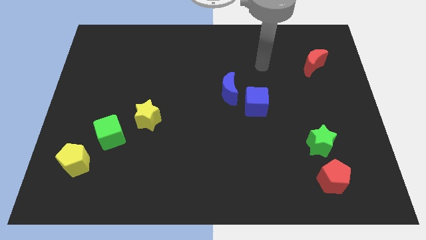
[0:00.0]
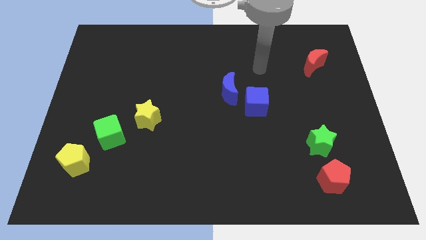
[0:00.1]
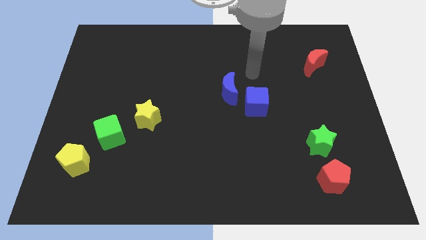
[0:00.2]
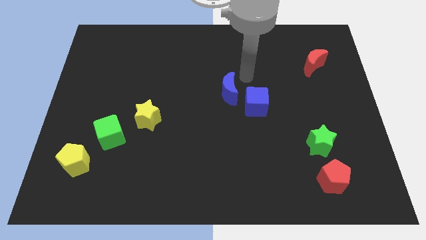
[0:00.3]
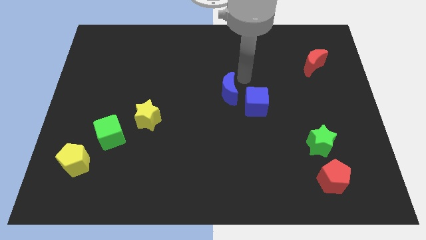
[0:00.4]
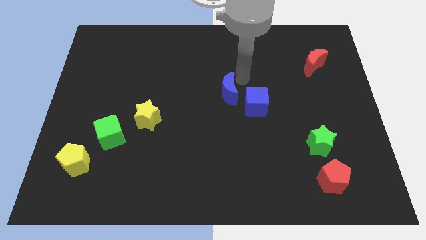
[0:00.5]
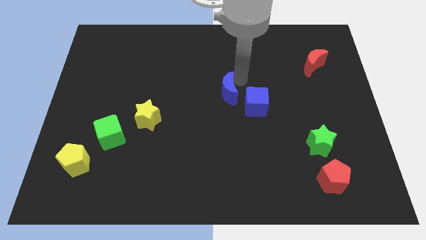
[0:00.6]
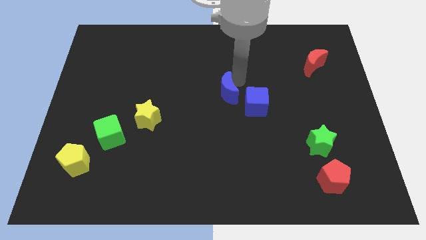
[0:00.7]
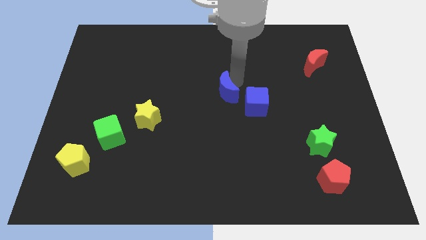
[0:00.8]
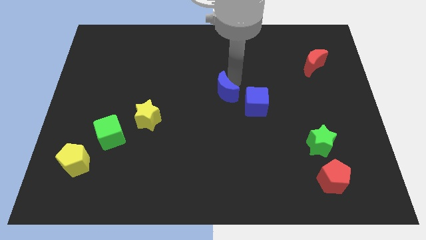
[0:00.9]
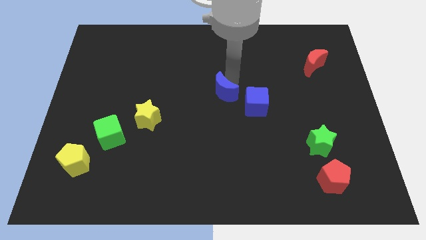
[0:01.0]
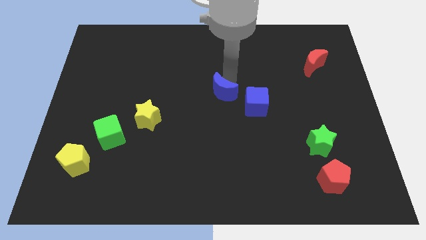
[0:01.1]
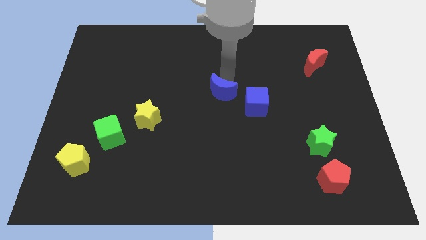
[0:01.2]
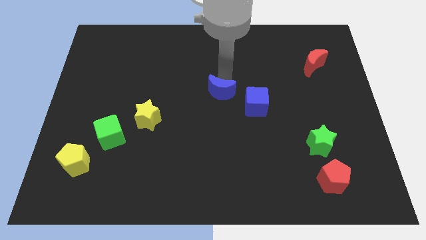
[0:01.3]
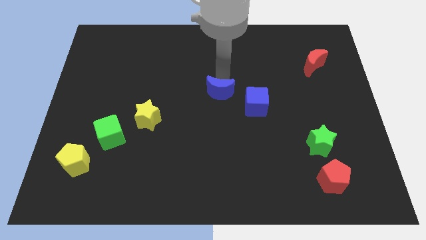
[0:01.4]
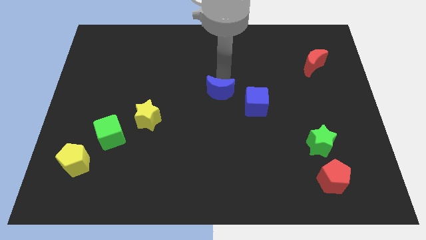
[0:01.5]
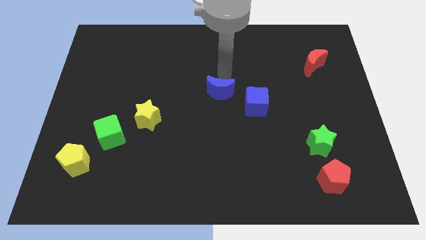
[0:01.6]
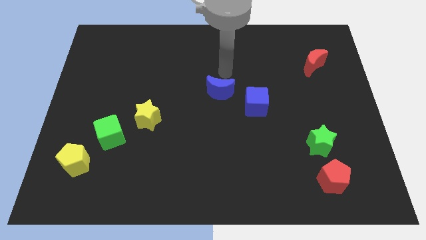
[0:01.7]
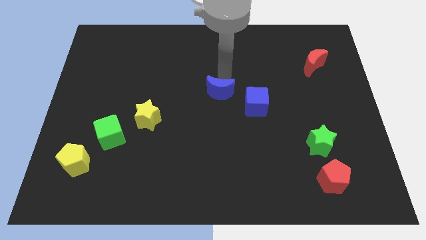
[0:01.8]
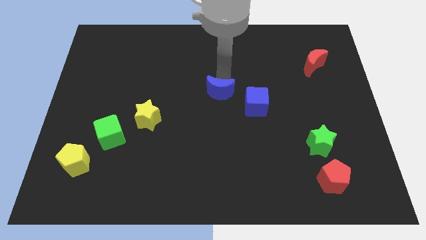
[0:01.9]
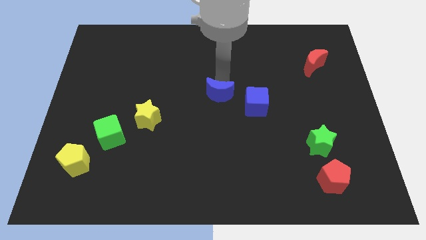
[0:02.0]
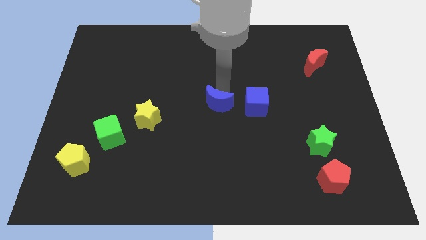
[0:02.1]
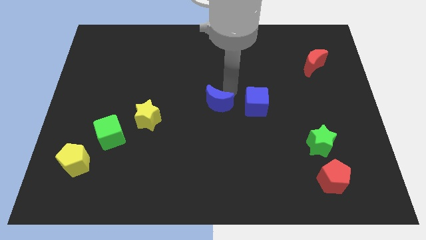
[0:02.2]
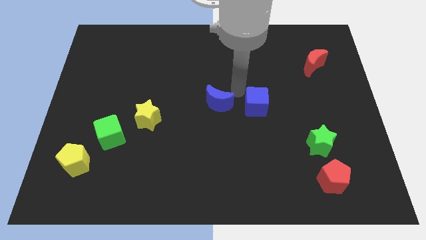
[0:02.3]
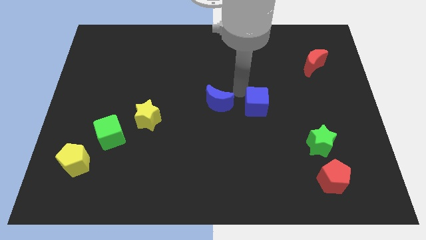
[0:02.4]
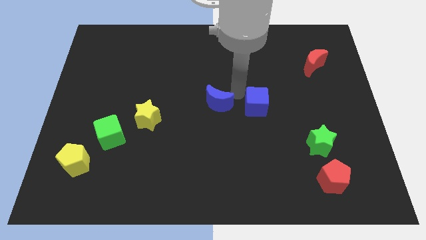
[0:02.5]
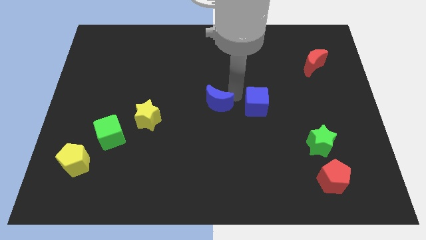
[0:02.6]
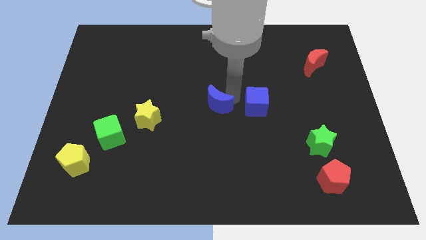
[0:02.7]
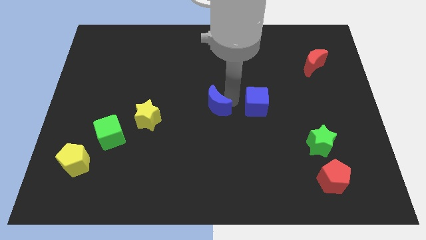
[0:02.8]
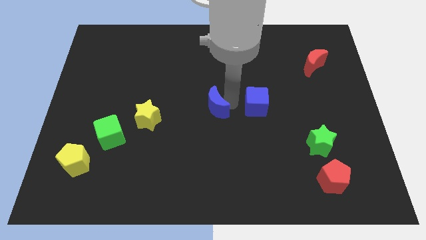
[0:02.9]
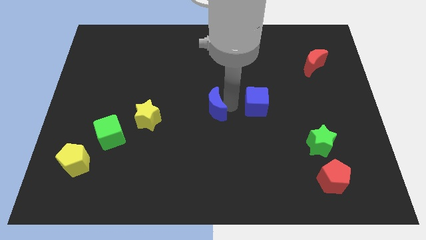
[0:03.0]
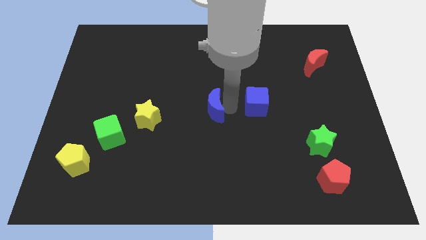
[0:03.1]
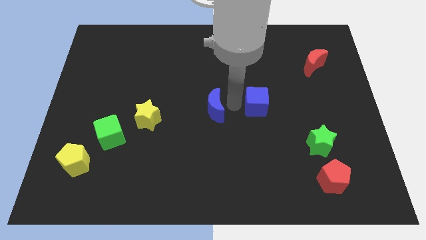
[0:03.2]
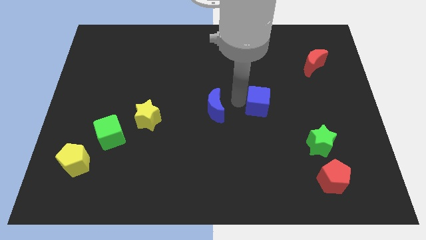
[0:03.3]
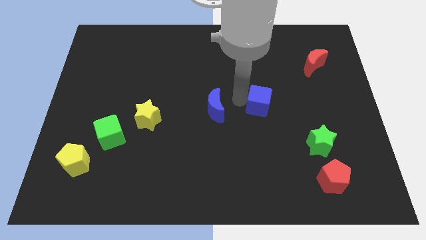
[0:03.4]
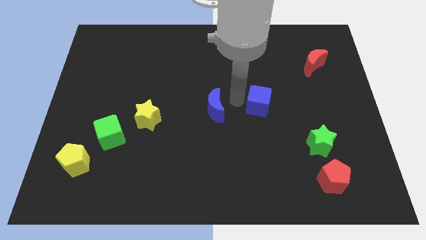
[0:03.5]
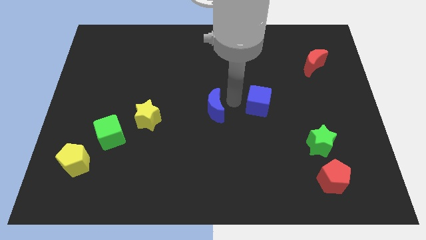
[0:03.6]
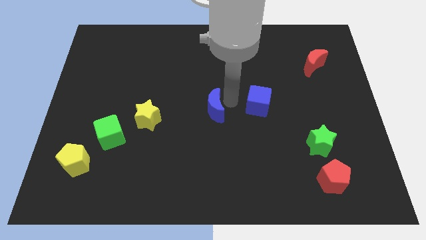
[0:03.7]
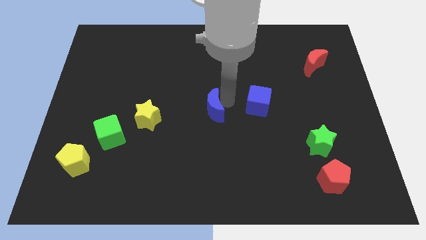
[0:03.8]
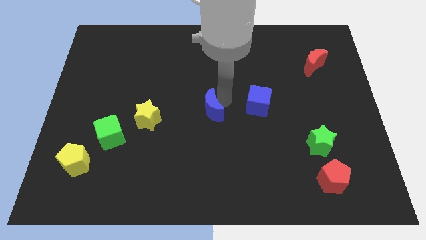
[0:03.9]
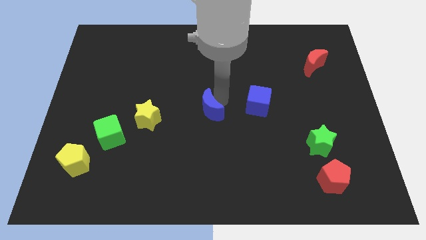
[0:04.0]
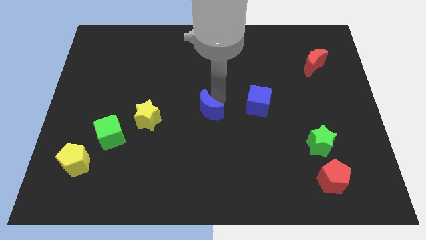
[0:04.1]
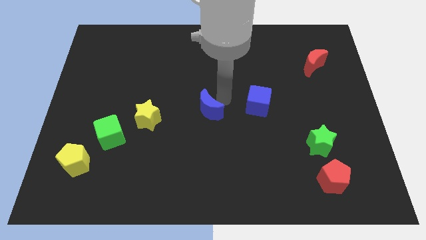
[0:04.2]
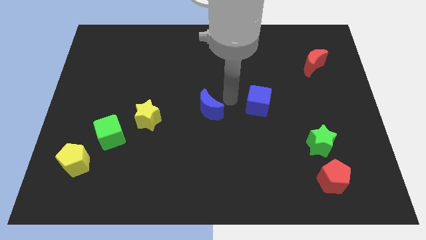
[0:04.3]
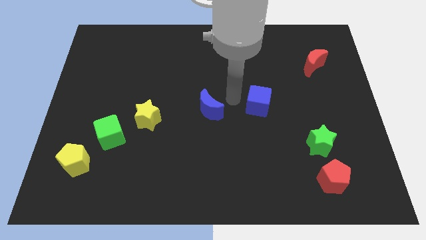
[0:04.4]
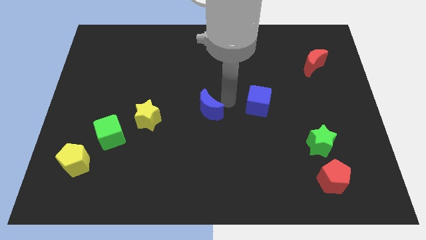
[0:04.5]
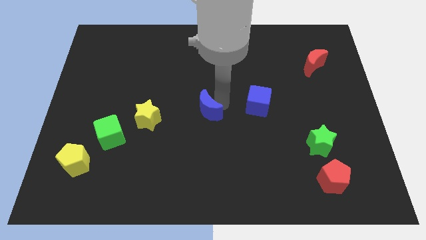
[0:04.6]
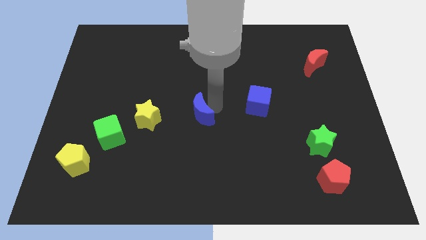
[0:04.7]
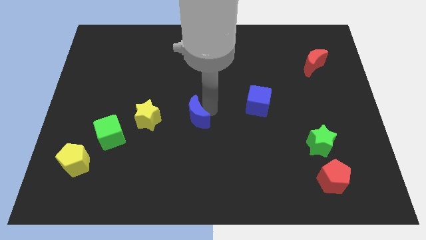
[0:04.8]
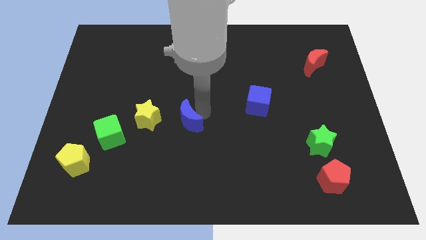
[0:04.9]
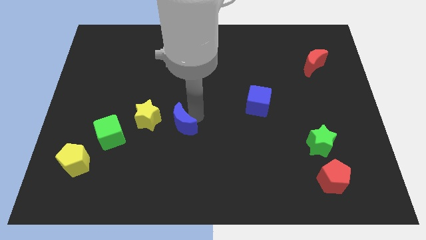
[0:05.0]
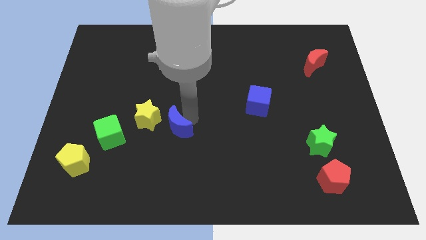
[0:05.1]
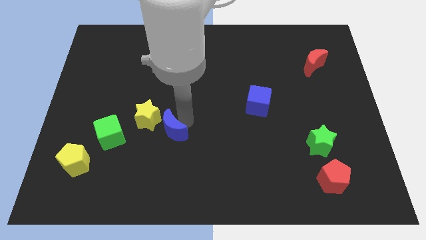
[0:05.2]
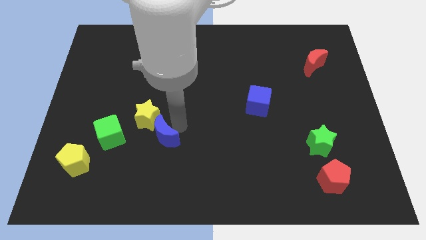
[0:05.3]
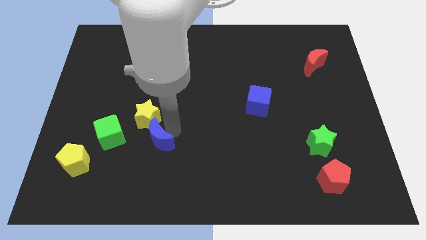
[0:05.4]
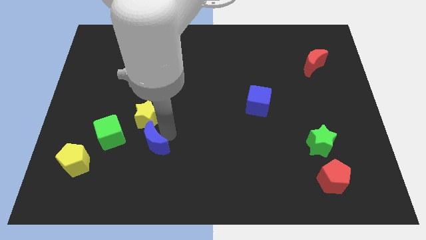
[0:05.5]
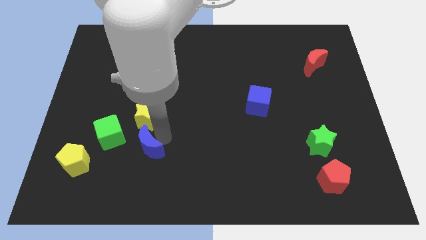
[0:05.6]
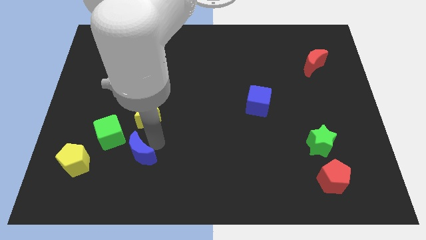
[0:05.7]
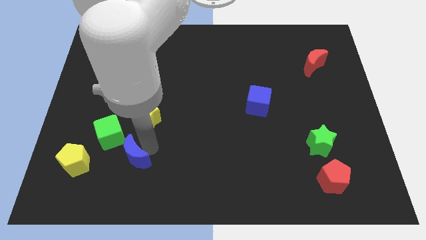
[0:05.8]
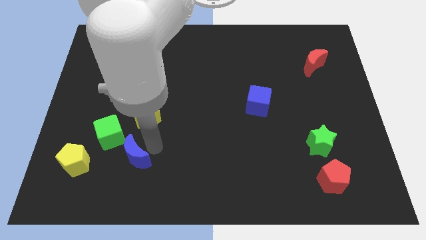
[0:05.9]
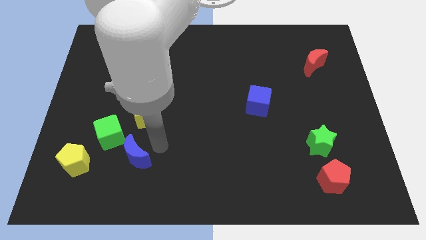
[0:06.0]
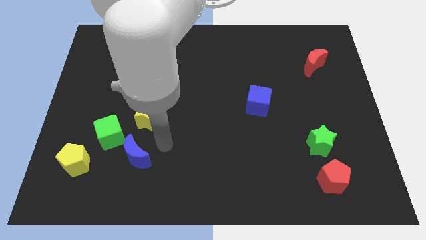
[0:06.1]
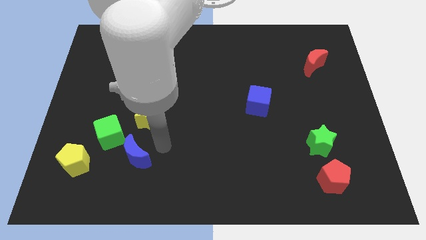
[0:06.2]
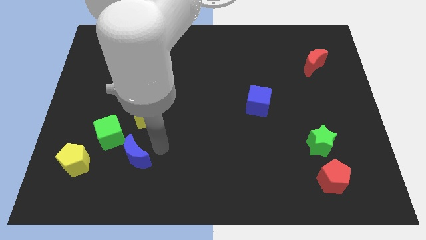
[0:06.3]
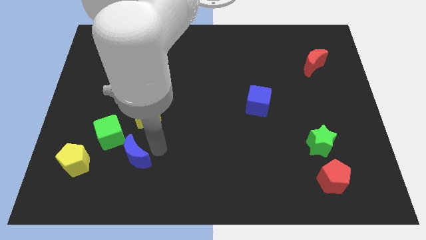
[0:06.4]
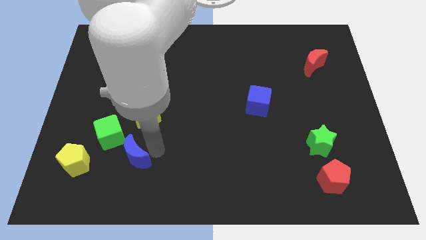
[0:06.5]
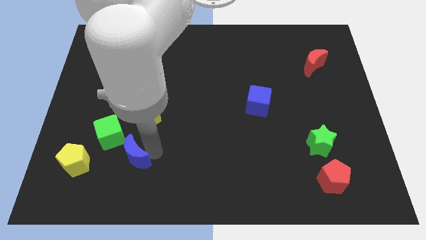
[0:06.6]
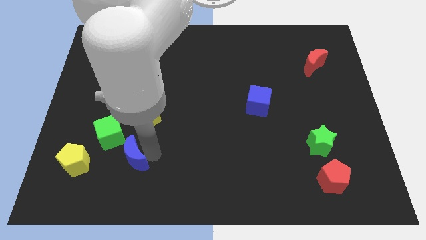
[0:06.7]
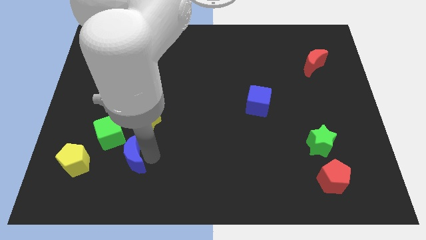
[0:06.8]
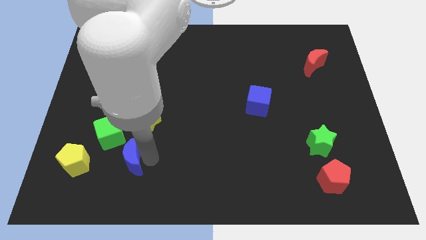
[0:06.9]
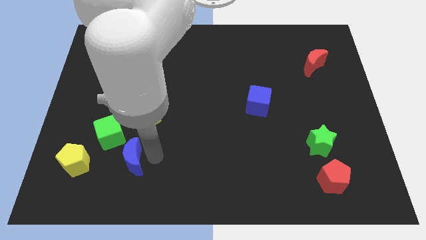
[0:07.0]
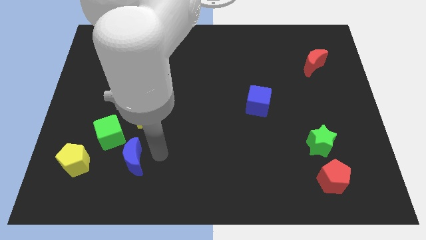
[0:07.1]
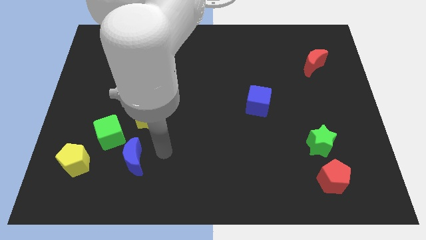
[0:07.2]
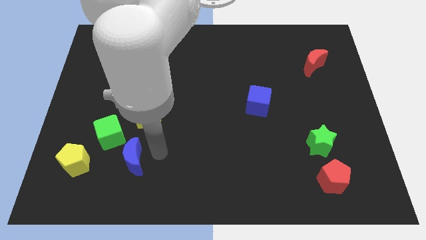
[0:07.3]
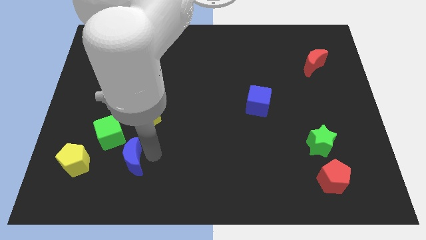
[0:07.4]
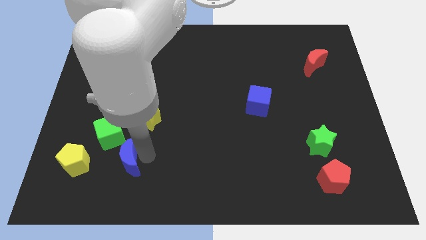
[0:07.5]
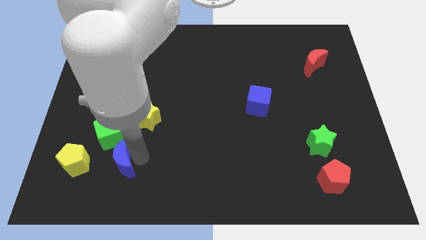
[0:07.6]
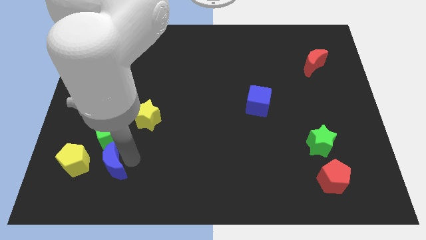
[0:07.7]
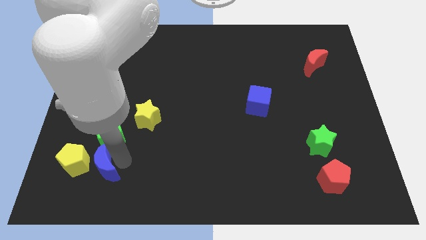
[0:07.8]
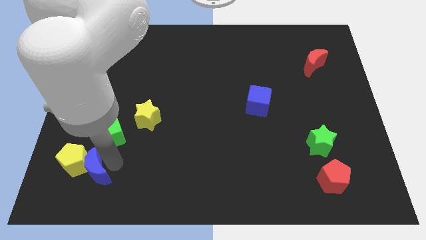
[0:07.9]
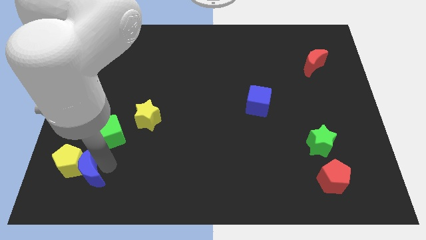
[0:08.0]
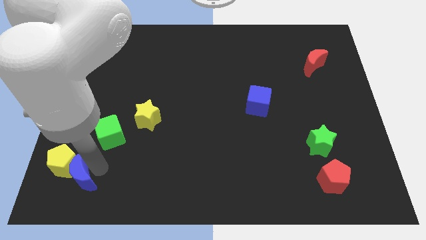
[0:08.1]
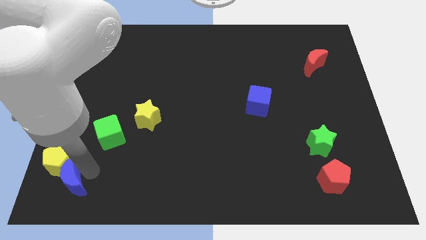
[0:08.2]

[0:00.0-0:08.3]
slide the blue moon to the lower left corner
